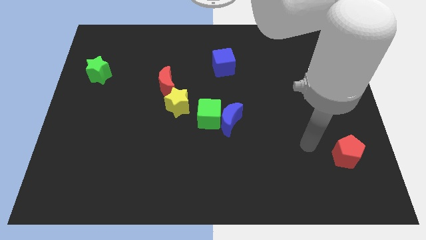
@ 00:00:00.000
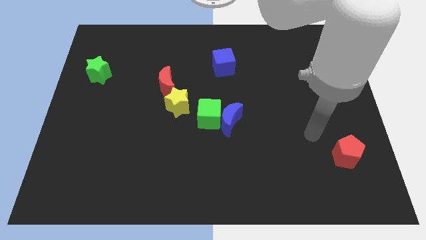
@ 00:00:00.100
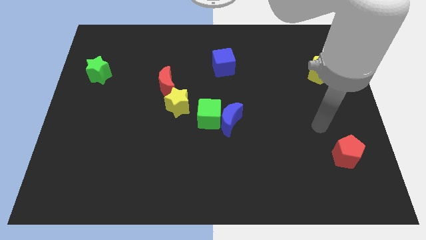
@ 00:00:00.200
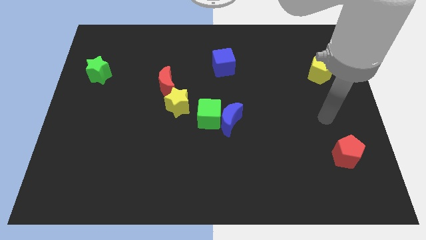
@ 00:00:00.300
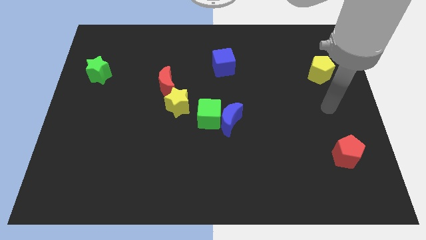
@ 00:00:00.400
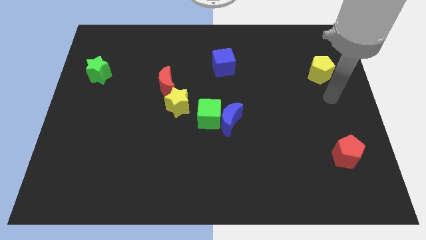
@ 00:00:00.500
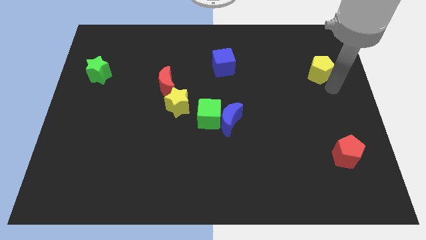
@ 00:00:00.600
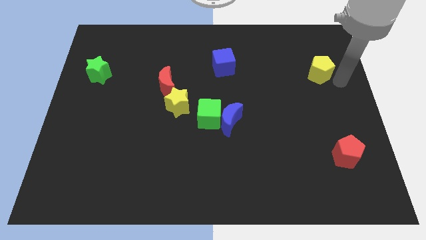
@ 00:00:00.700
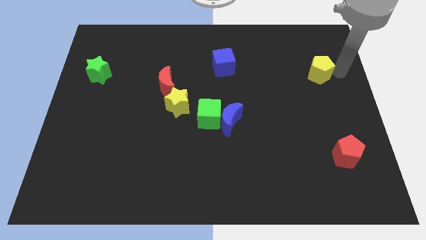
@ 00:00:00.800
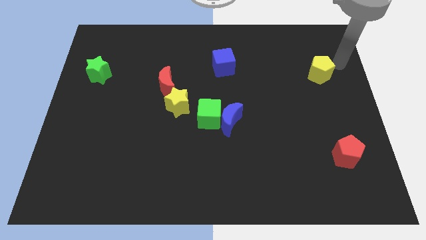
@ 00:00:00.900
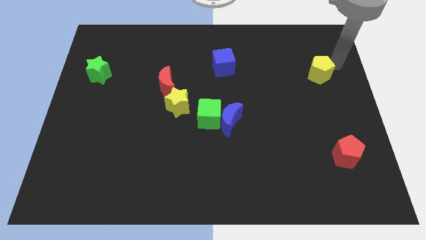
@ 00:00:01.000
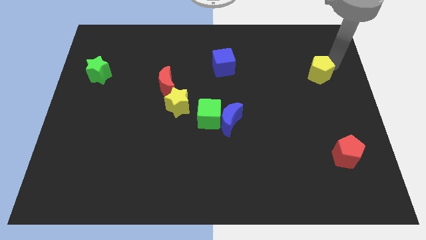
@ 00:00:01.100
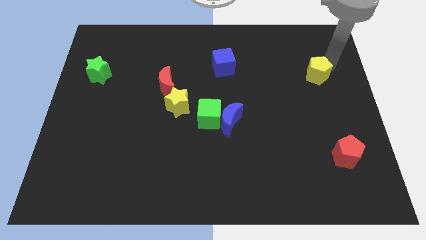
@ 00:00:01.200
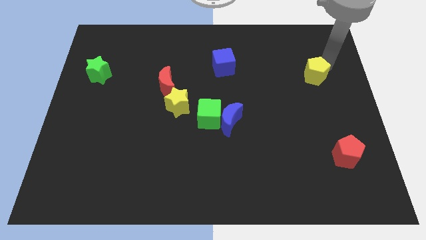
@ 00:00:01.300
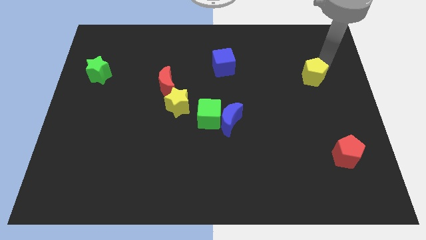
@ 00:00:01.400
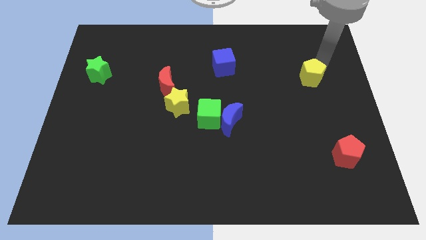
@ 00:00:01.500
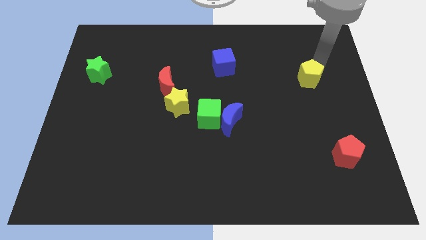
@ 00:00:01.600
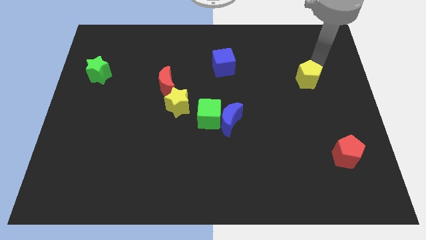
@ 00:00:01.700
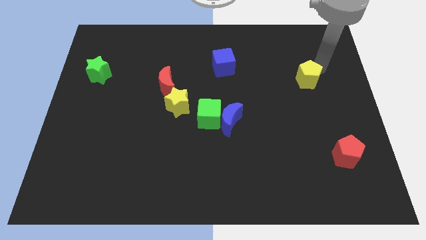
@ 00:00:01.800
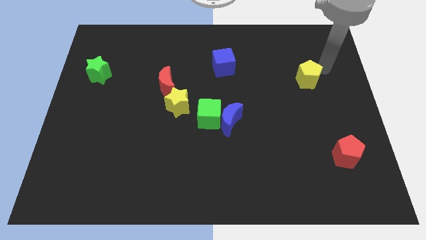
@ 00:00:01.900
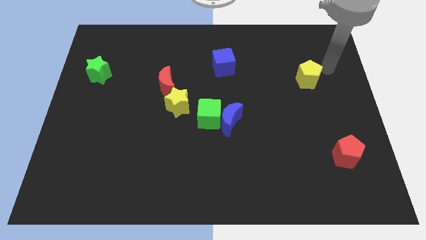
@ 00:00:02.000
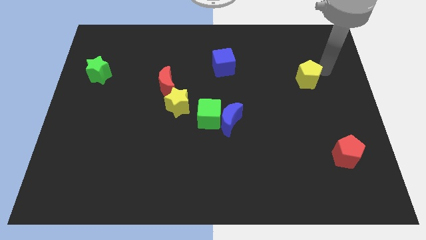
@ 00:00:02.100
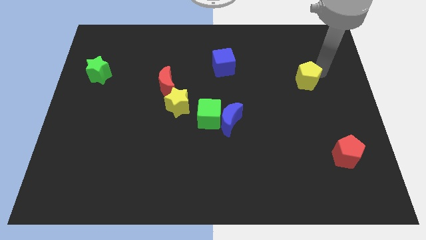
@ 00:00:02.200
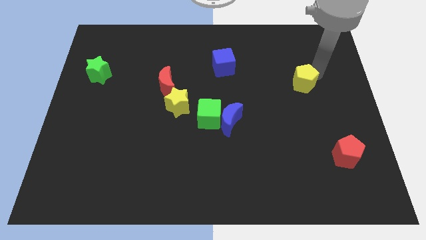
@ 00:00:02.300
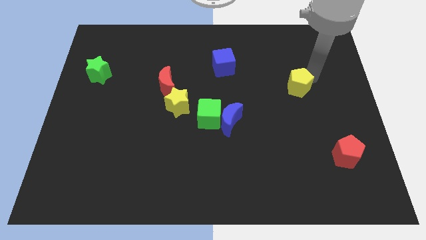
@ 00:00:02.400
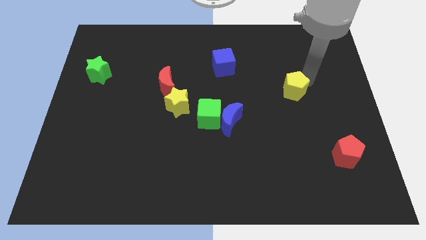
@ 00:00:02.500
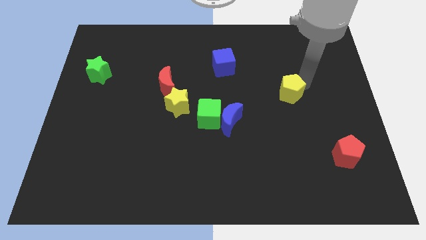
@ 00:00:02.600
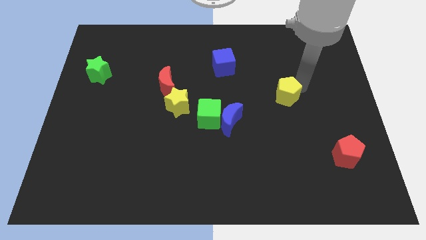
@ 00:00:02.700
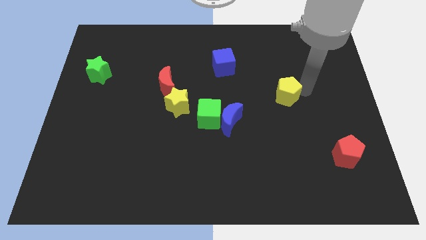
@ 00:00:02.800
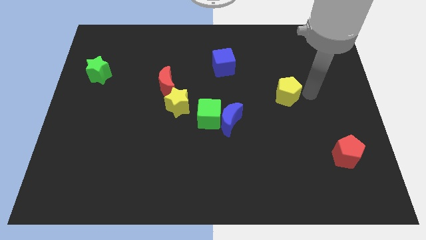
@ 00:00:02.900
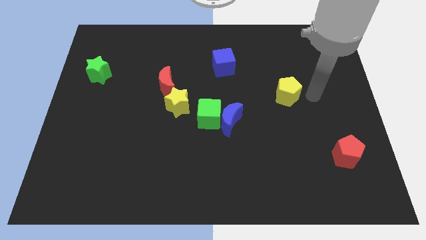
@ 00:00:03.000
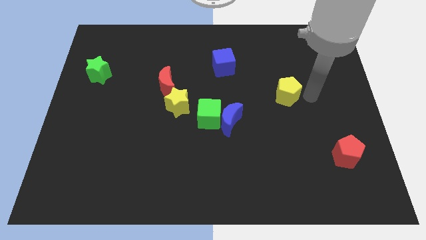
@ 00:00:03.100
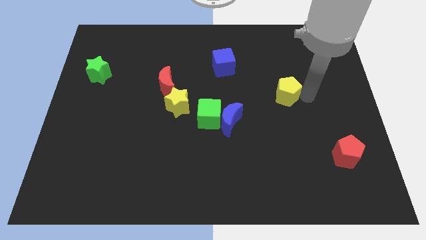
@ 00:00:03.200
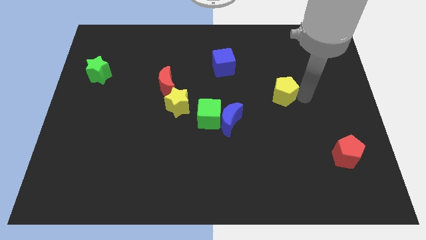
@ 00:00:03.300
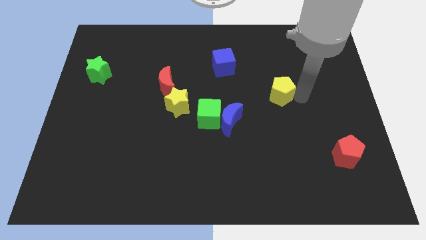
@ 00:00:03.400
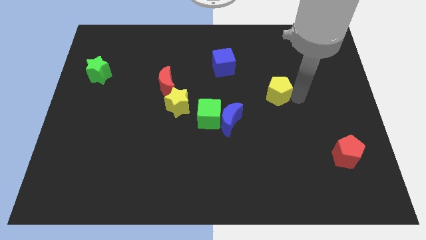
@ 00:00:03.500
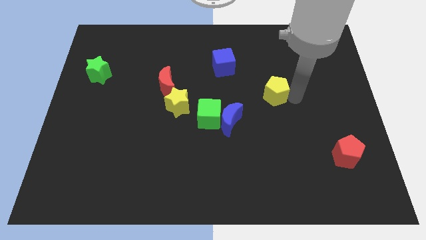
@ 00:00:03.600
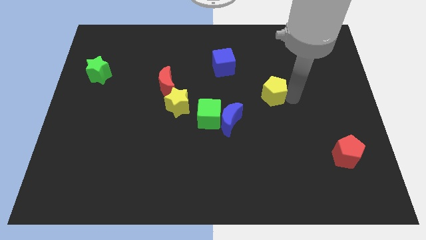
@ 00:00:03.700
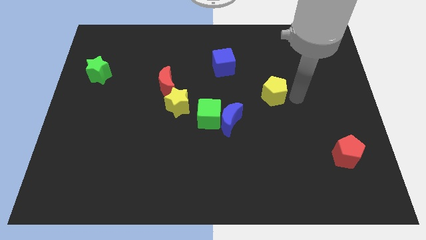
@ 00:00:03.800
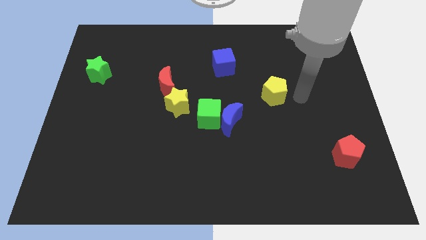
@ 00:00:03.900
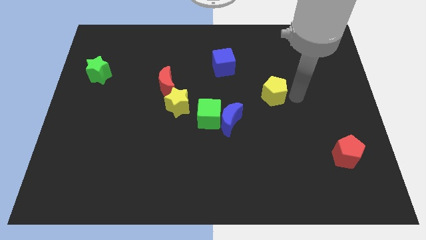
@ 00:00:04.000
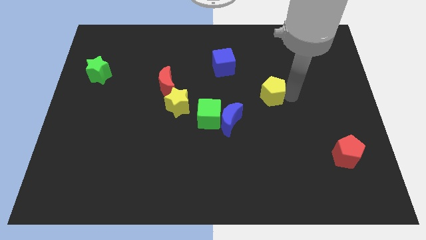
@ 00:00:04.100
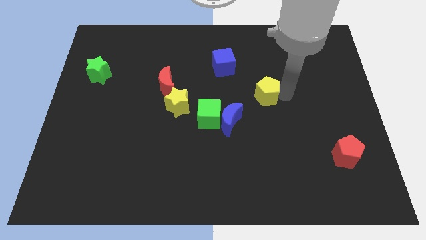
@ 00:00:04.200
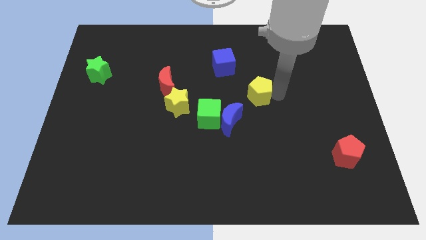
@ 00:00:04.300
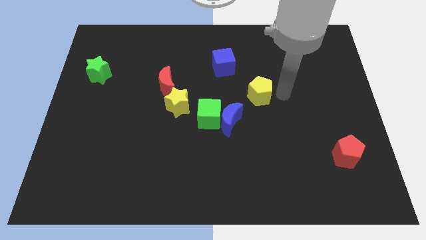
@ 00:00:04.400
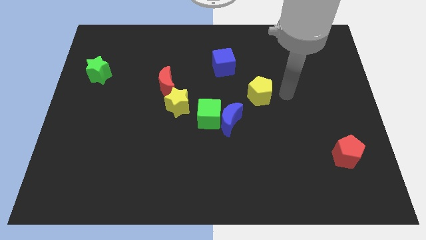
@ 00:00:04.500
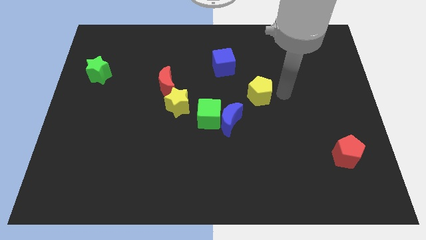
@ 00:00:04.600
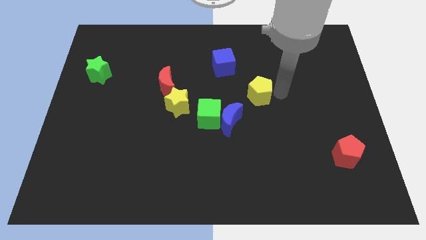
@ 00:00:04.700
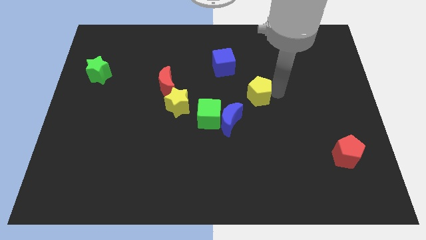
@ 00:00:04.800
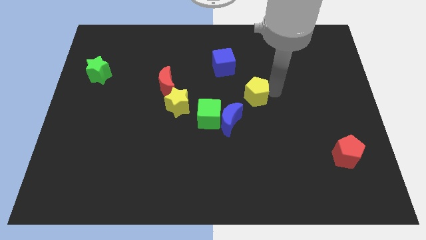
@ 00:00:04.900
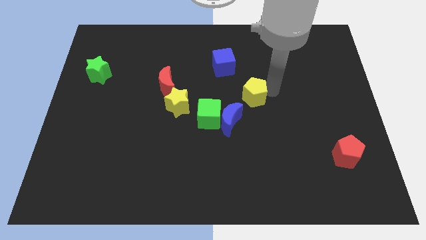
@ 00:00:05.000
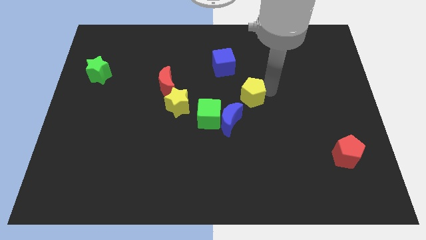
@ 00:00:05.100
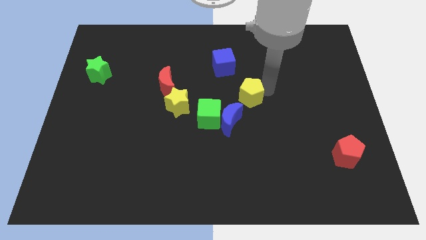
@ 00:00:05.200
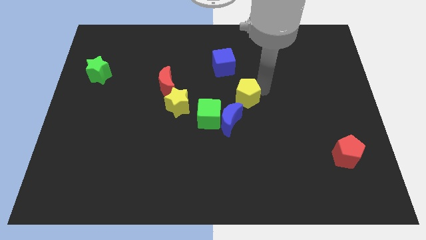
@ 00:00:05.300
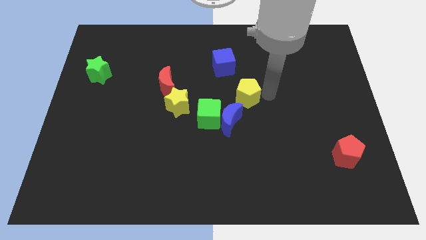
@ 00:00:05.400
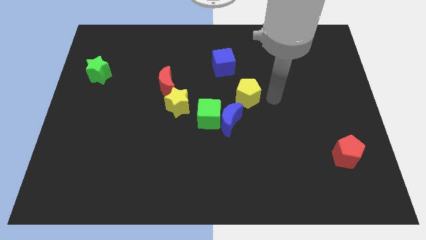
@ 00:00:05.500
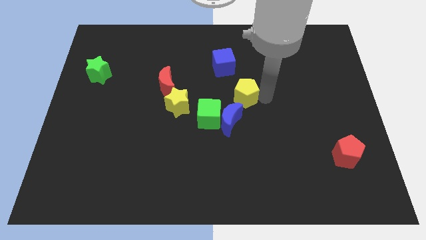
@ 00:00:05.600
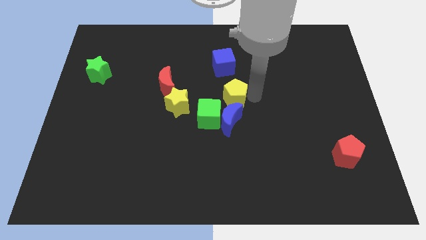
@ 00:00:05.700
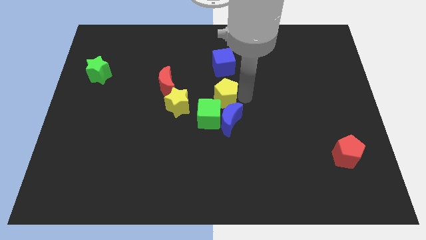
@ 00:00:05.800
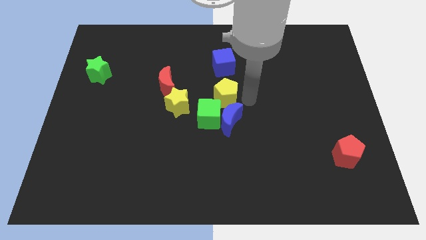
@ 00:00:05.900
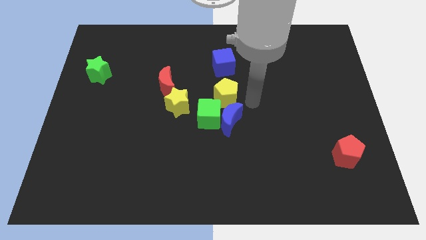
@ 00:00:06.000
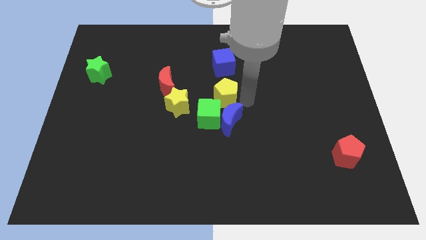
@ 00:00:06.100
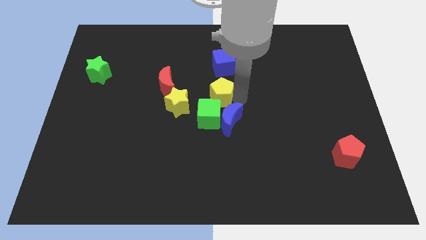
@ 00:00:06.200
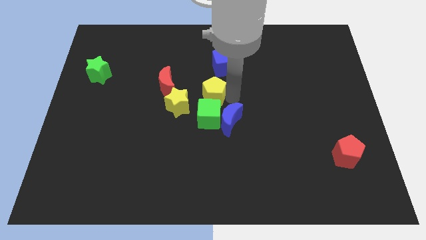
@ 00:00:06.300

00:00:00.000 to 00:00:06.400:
put the yellow pentagon diagonally up and to the right of the yellow star
